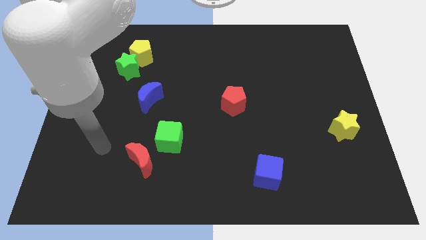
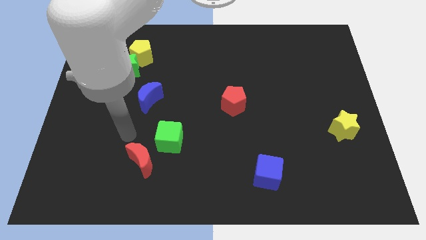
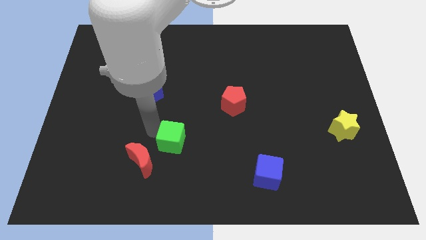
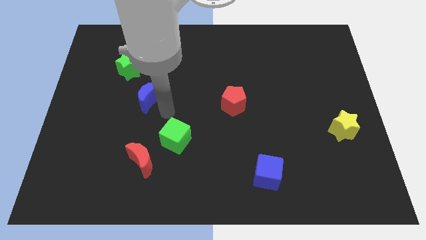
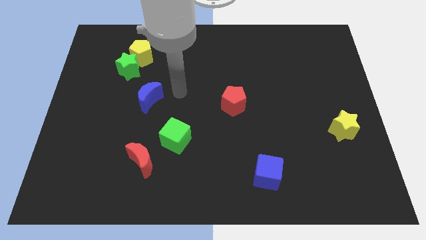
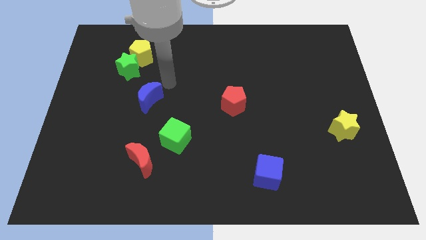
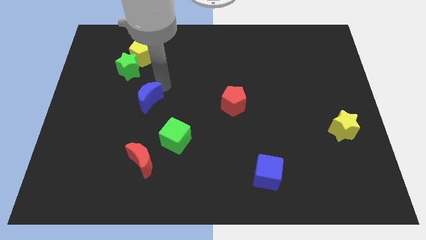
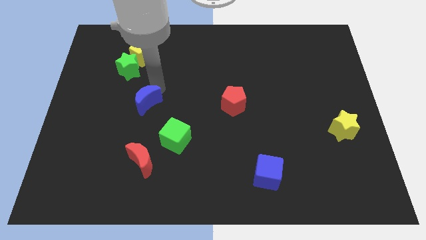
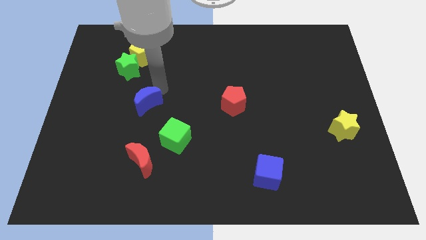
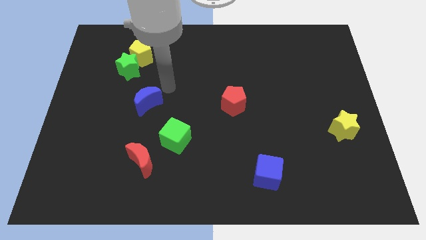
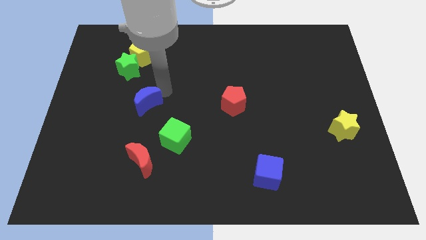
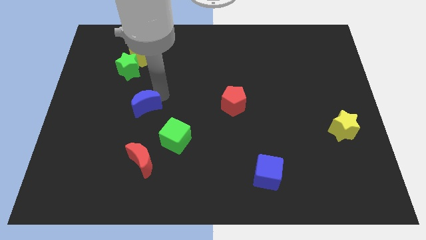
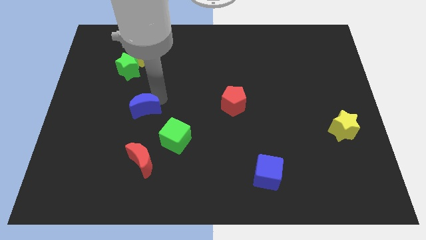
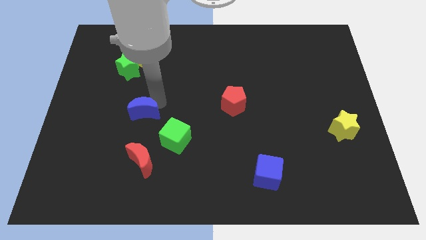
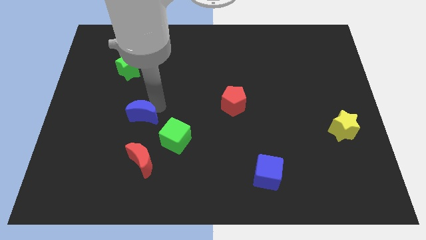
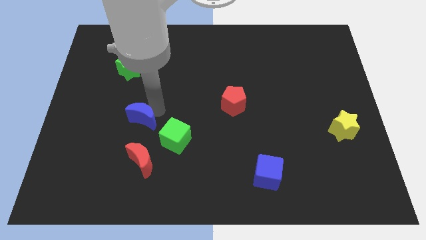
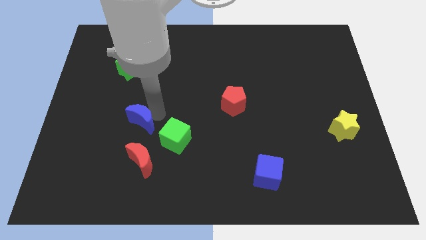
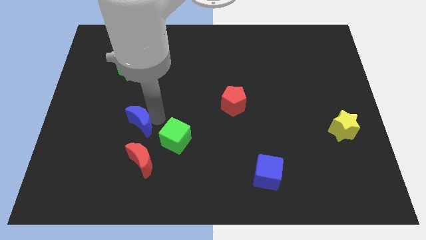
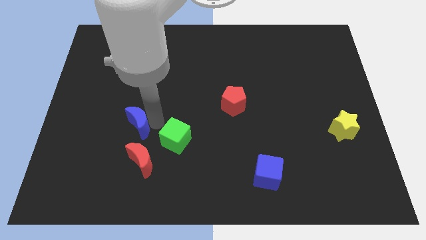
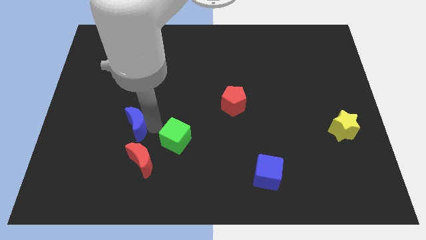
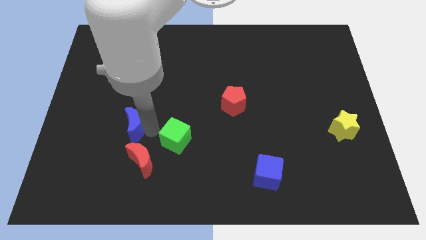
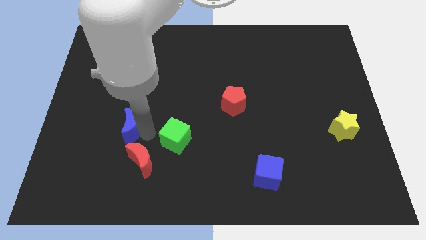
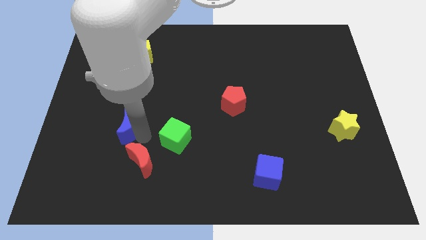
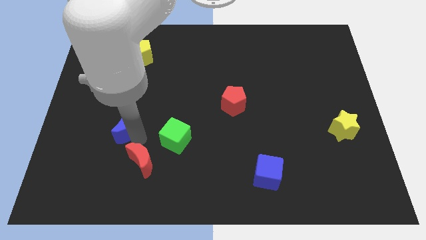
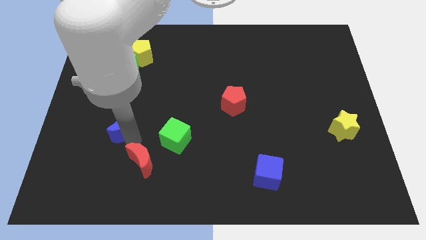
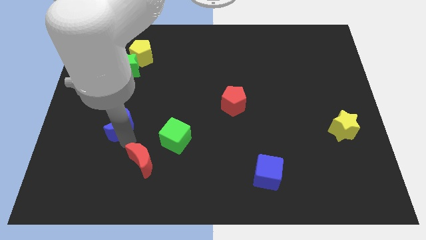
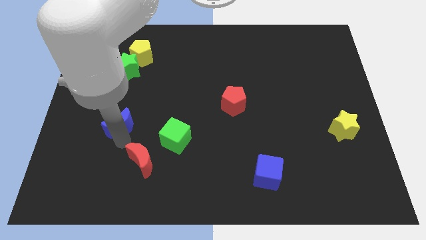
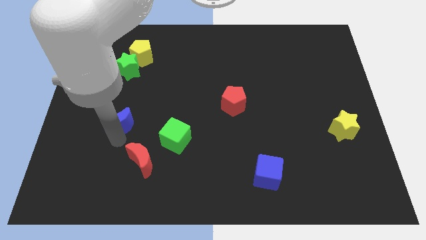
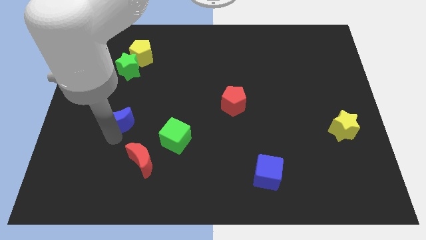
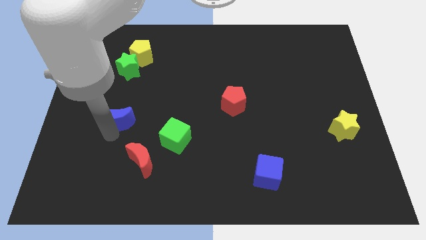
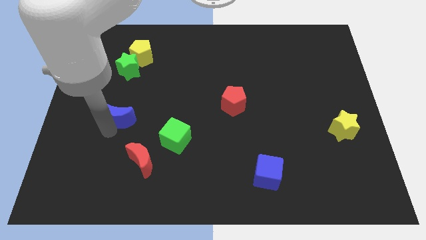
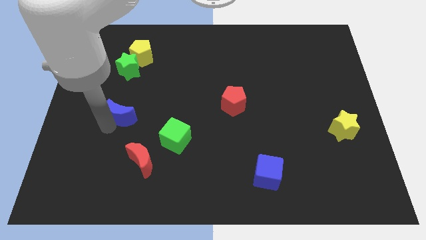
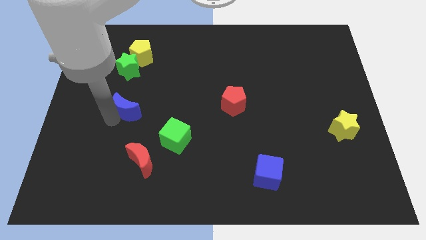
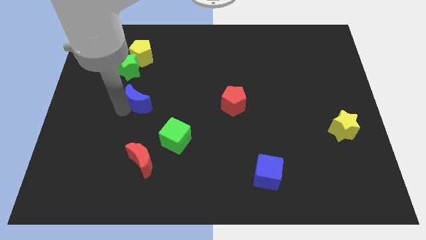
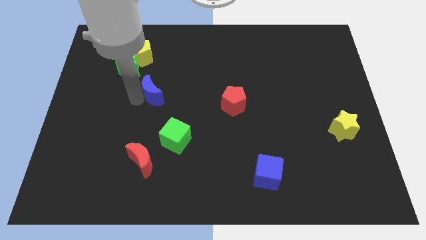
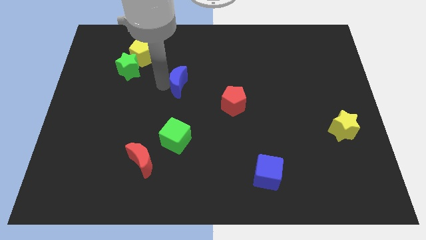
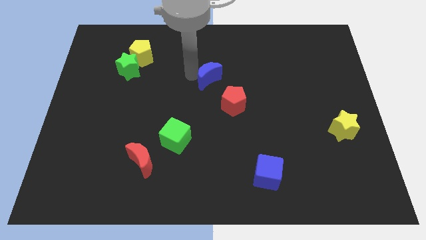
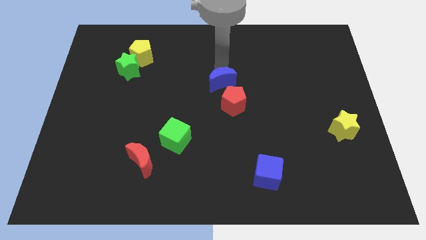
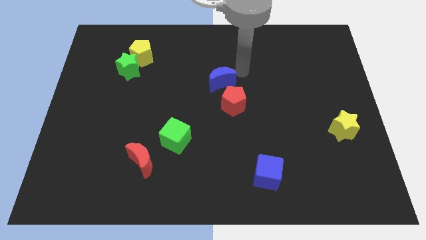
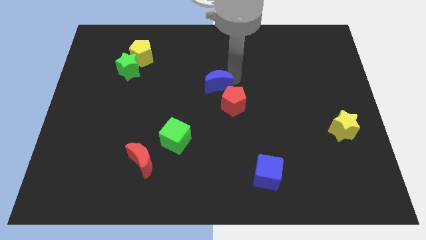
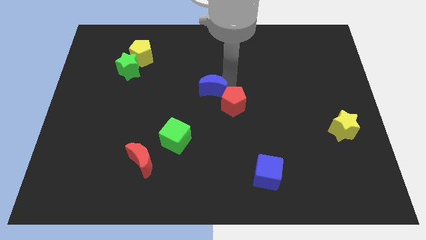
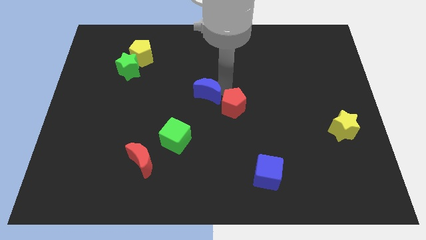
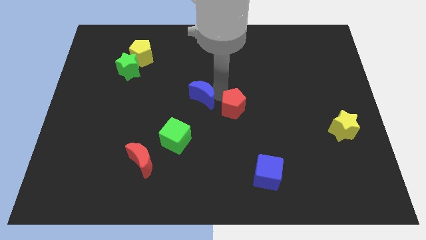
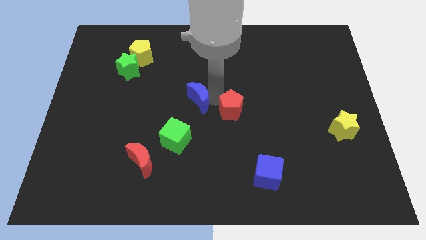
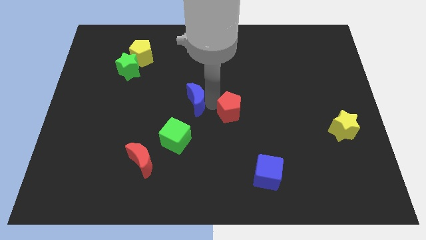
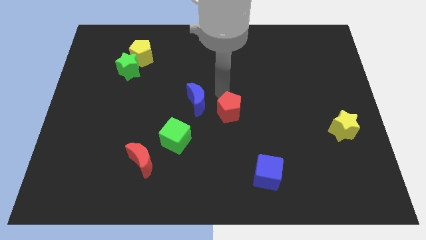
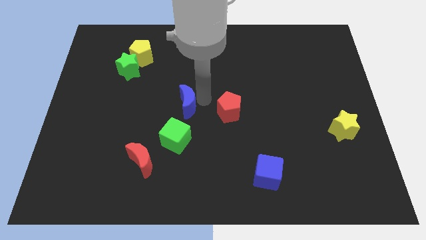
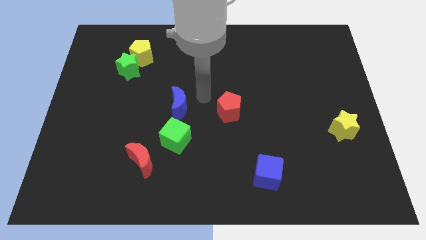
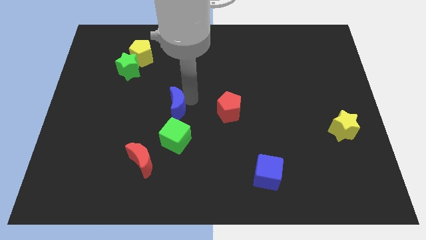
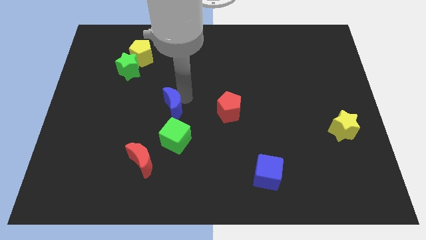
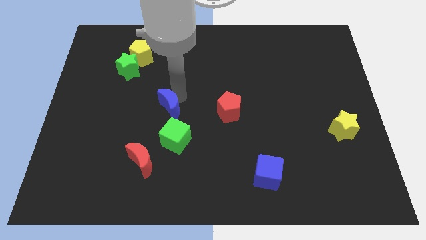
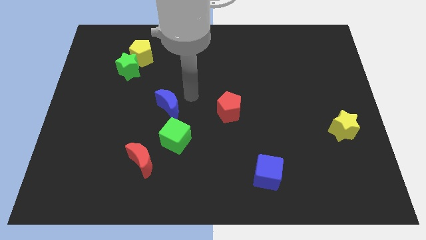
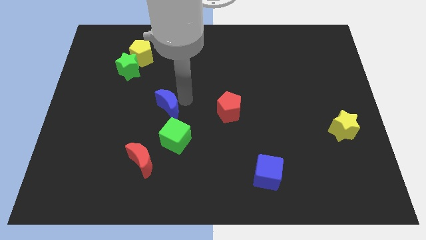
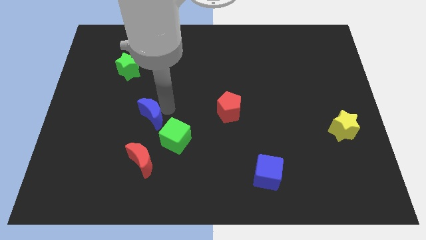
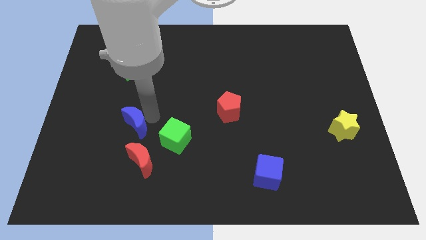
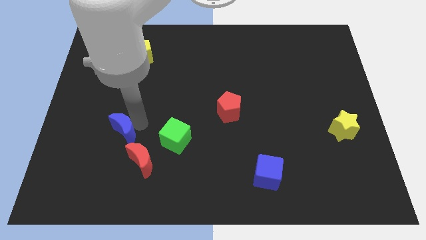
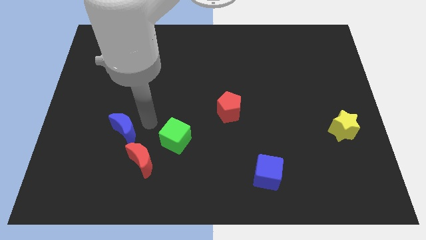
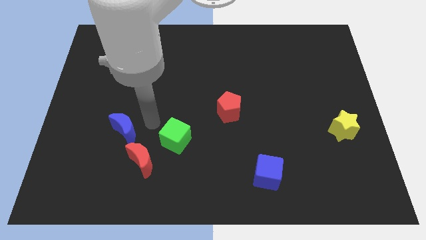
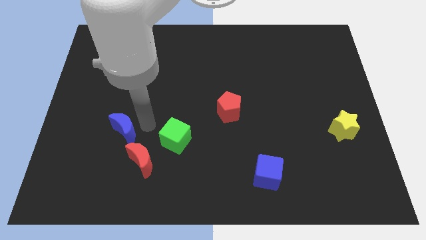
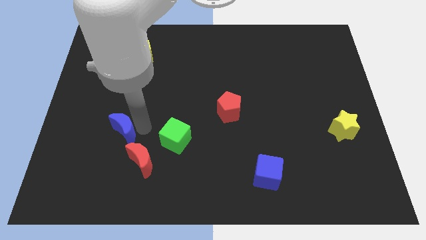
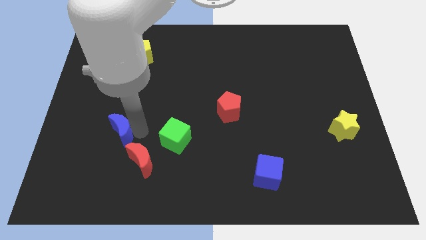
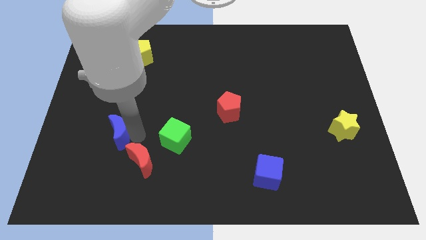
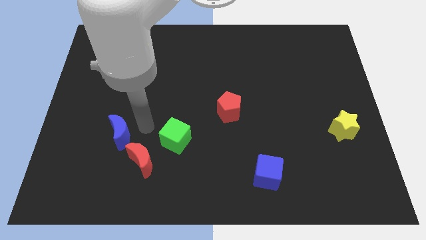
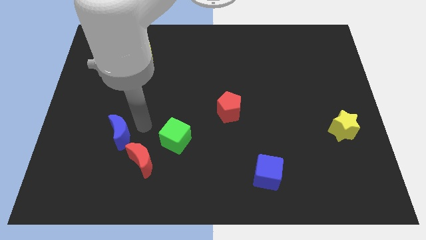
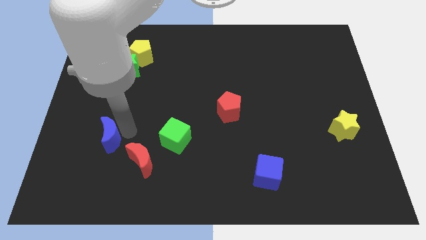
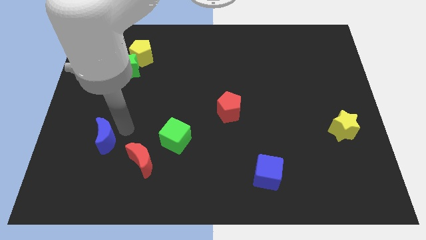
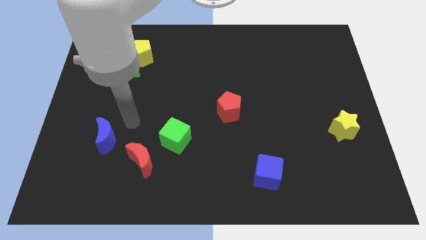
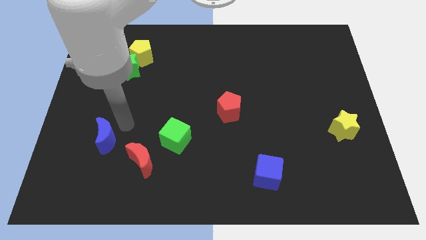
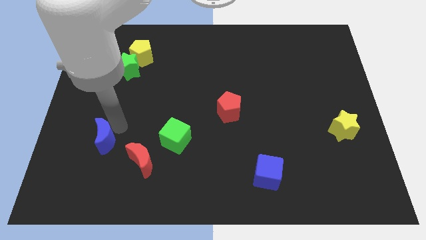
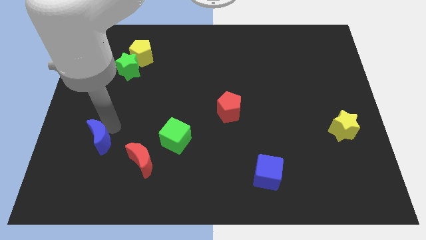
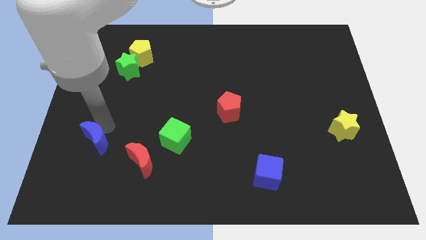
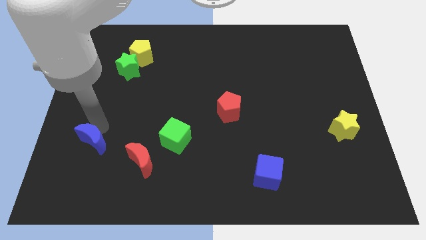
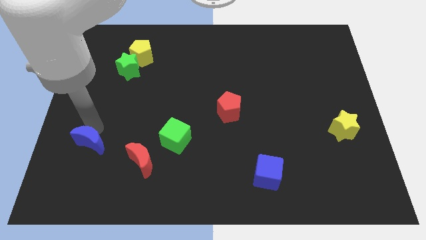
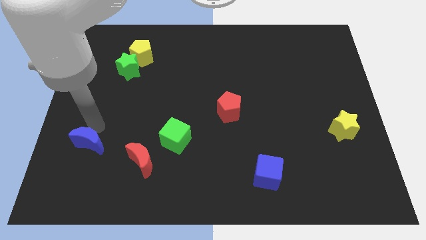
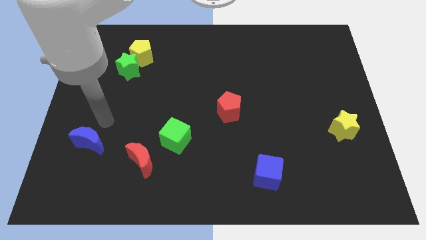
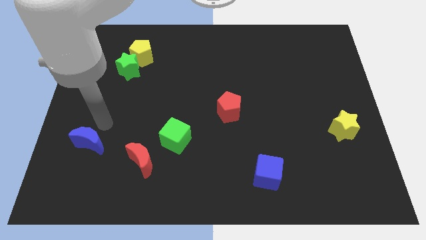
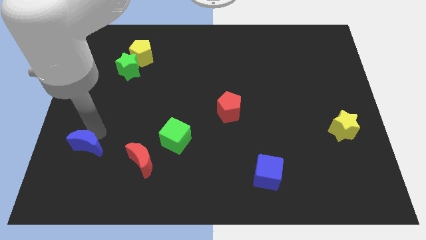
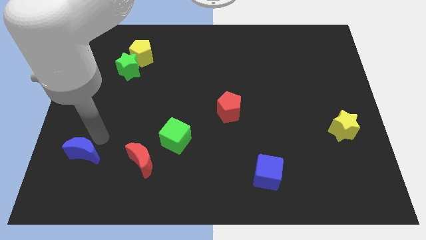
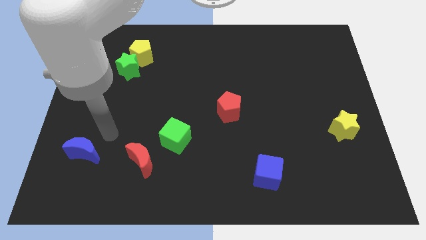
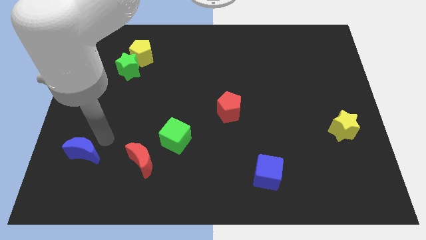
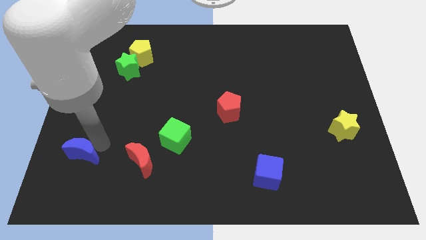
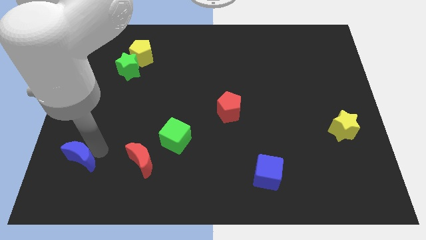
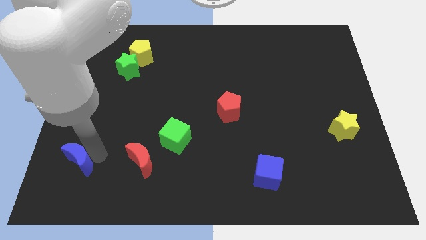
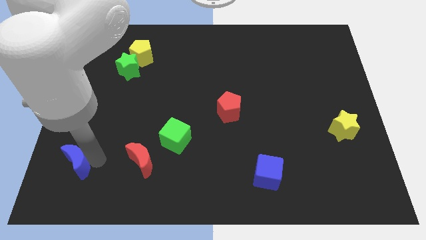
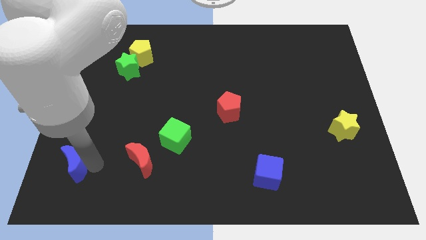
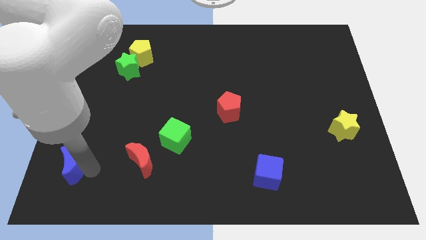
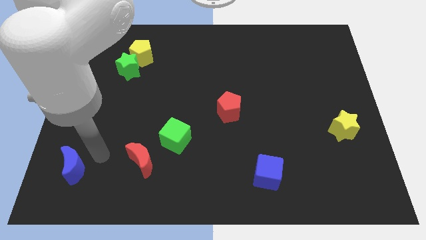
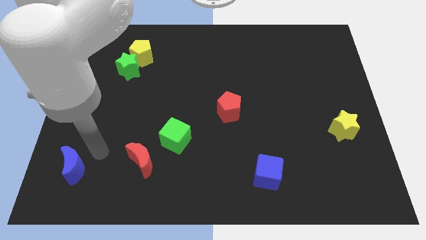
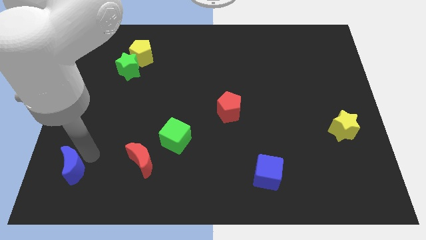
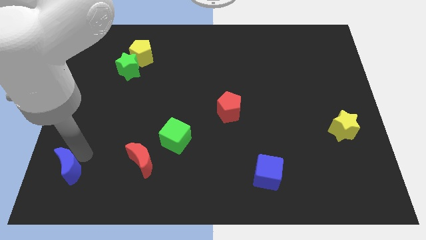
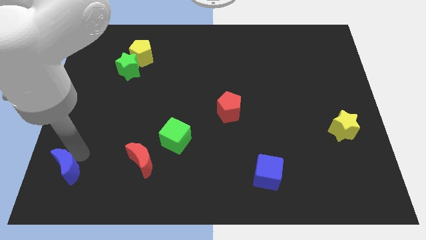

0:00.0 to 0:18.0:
push the blue moon to the bottom left of the board
